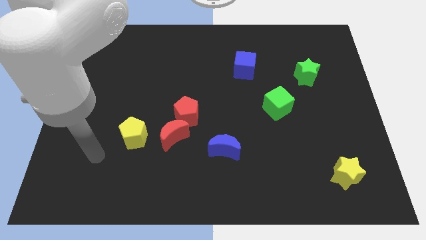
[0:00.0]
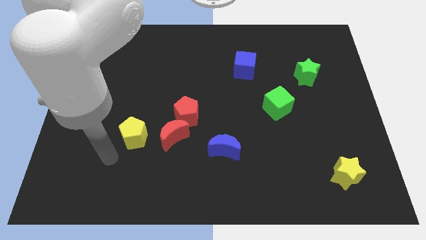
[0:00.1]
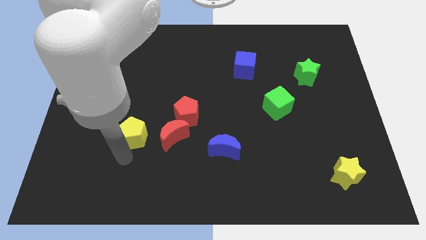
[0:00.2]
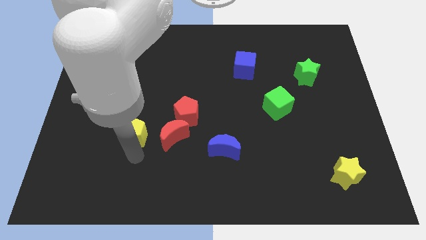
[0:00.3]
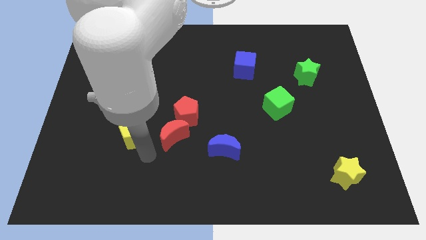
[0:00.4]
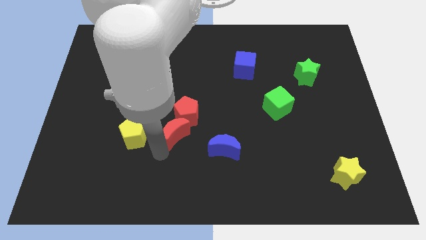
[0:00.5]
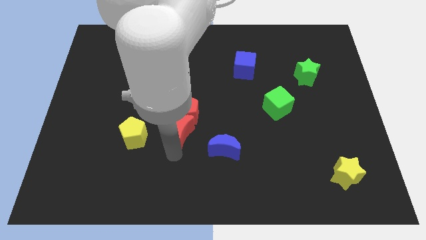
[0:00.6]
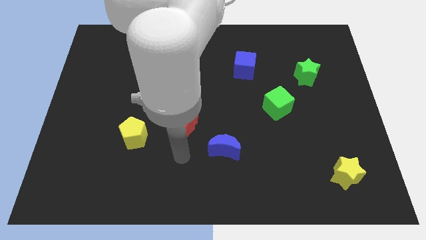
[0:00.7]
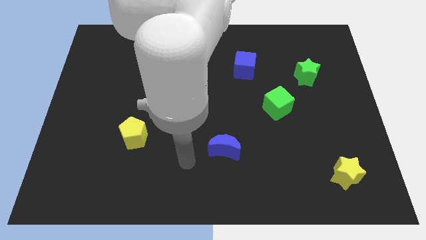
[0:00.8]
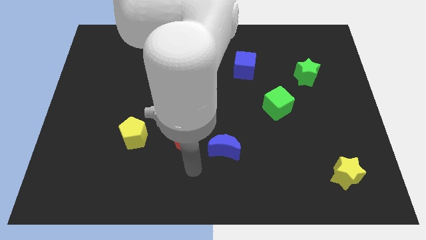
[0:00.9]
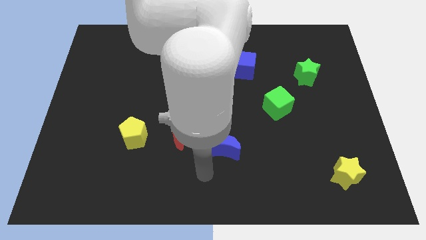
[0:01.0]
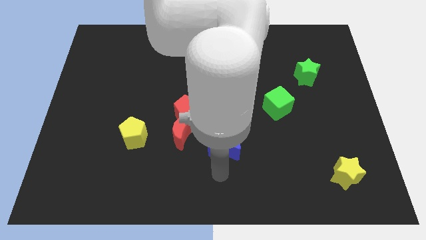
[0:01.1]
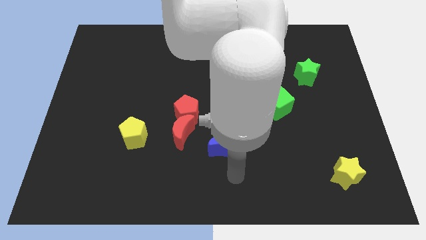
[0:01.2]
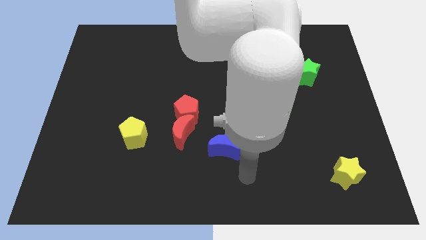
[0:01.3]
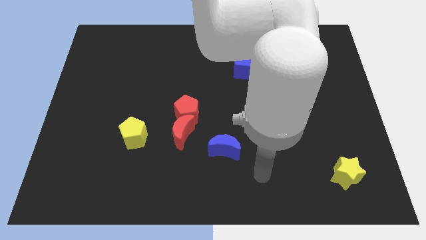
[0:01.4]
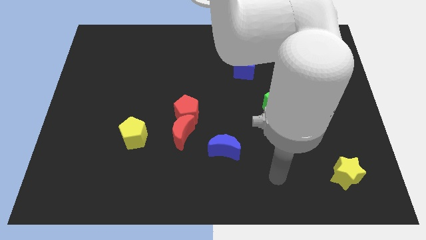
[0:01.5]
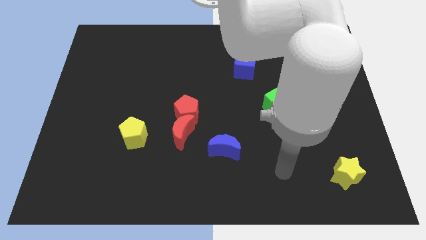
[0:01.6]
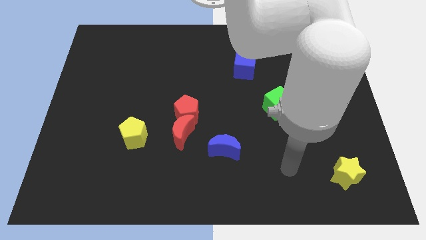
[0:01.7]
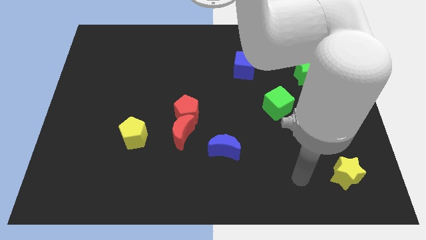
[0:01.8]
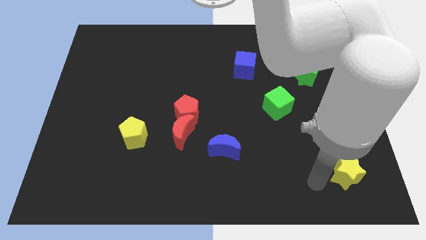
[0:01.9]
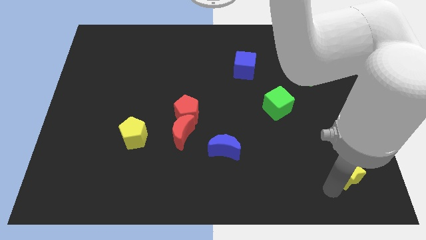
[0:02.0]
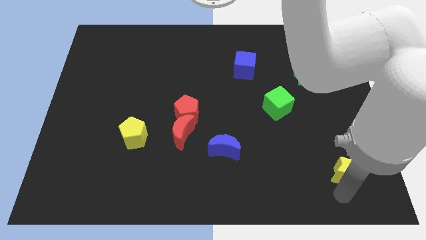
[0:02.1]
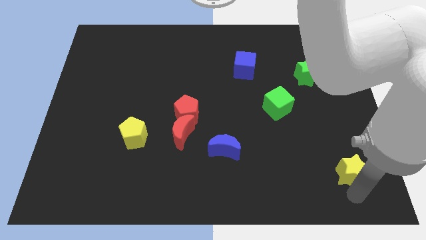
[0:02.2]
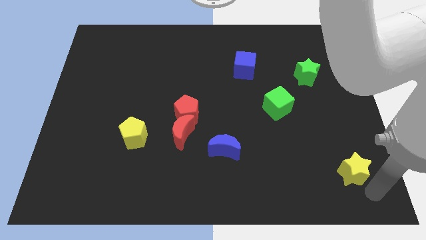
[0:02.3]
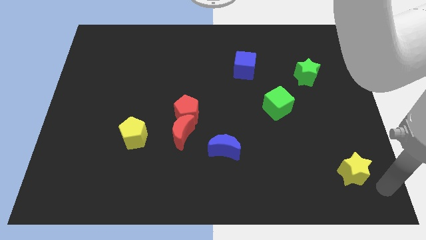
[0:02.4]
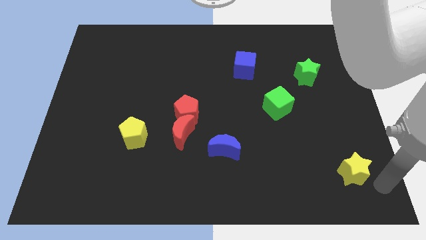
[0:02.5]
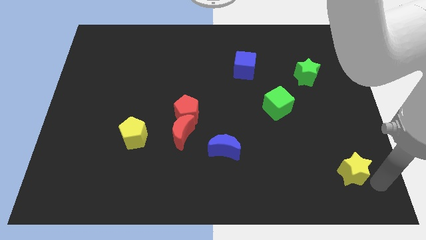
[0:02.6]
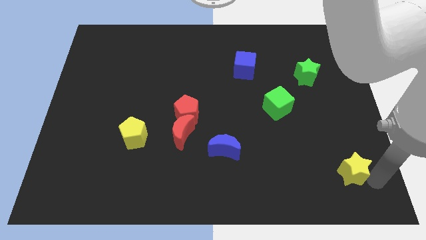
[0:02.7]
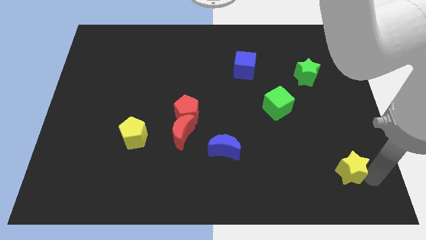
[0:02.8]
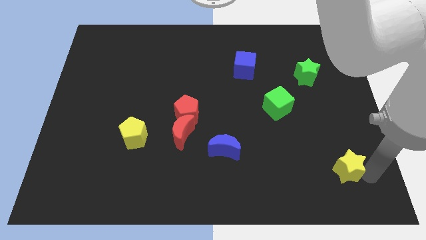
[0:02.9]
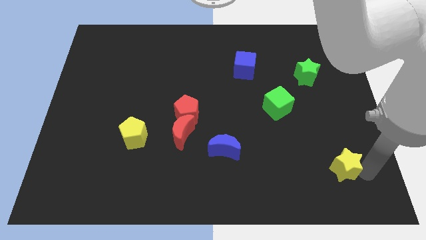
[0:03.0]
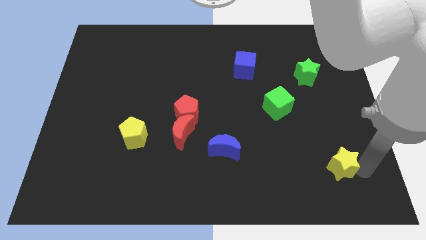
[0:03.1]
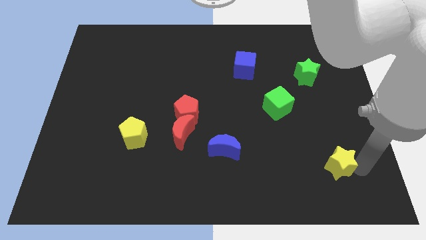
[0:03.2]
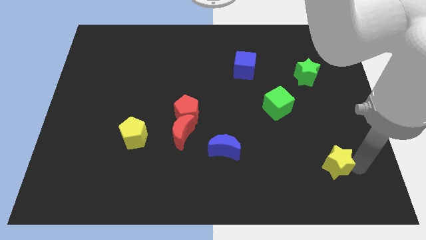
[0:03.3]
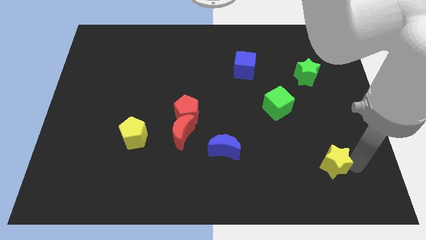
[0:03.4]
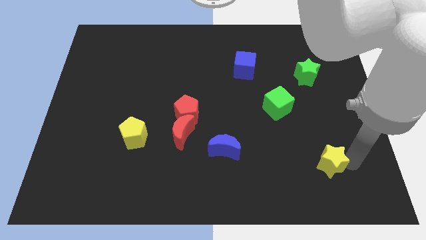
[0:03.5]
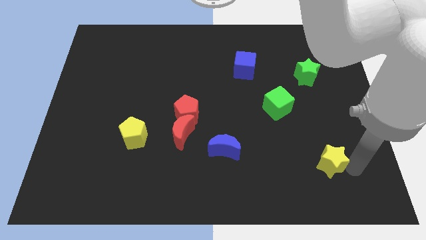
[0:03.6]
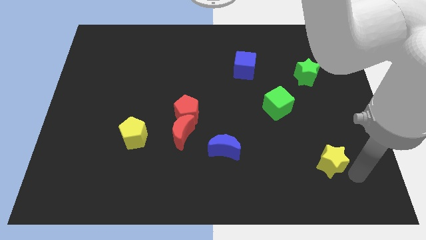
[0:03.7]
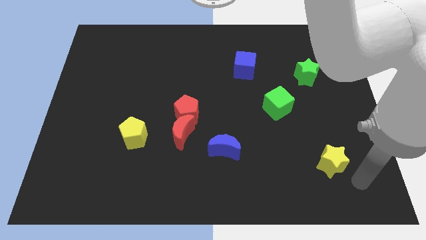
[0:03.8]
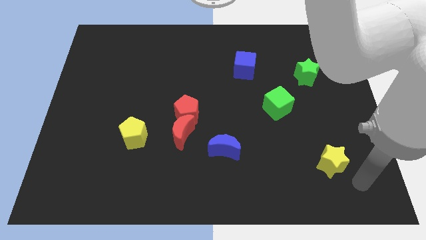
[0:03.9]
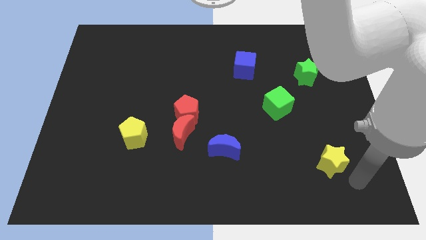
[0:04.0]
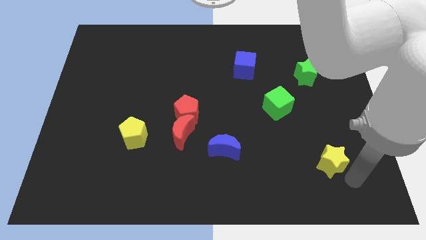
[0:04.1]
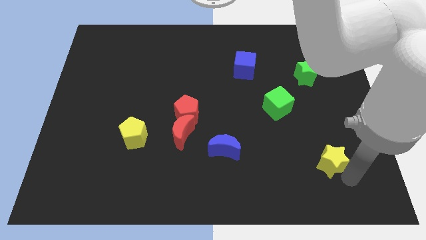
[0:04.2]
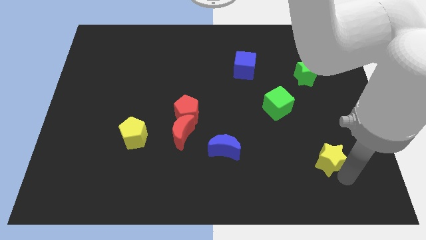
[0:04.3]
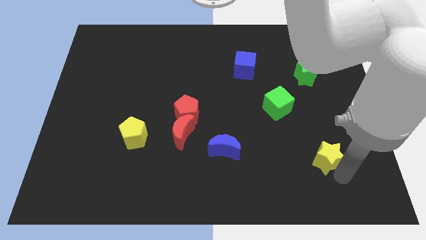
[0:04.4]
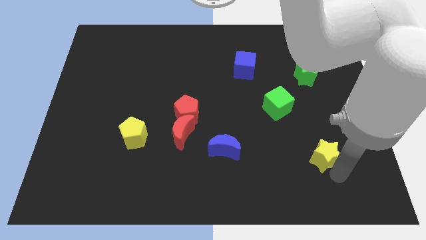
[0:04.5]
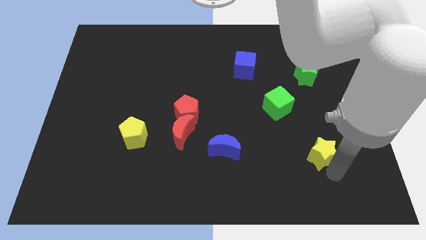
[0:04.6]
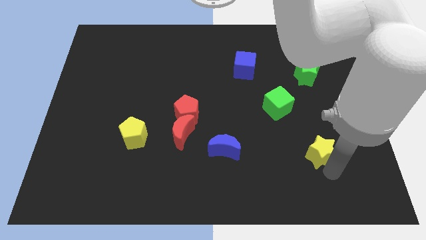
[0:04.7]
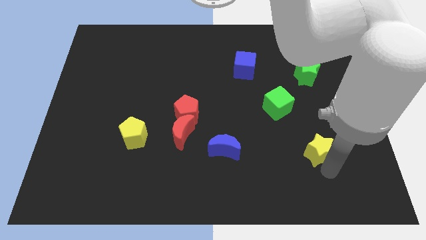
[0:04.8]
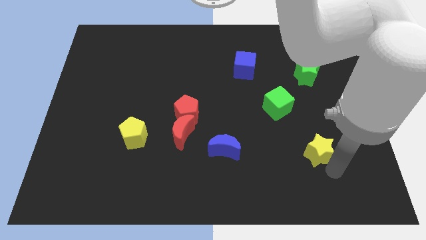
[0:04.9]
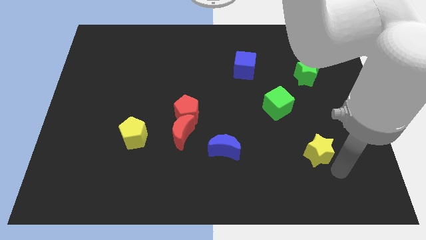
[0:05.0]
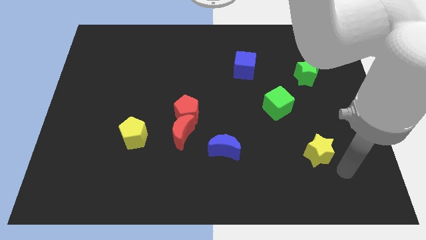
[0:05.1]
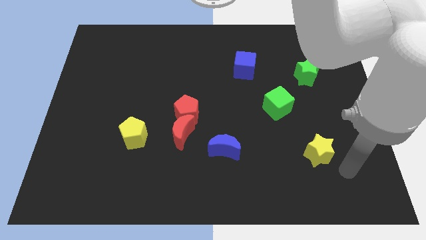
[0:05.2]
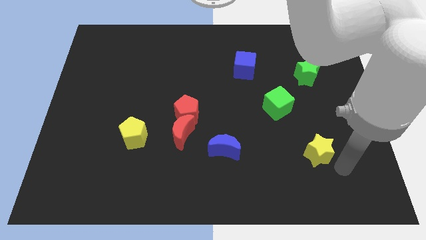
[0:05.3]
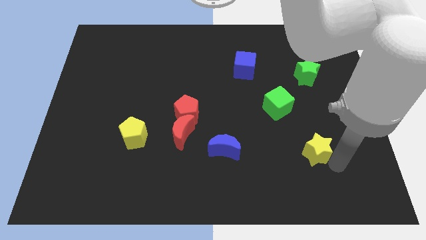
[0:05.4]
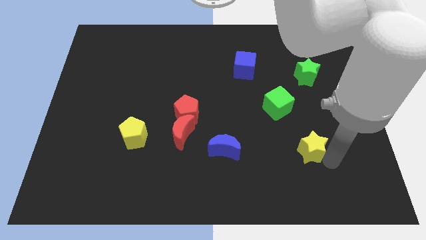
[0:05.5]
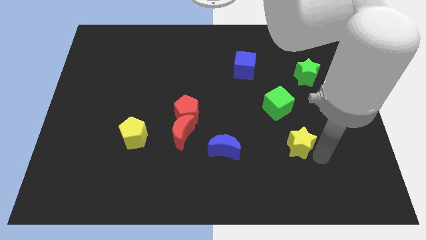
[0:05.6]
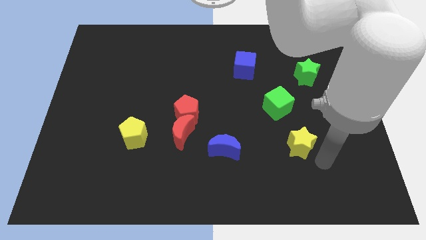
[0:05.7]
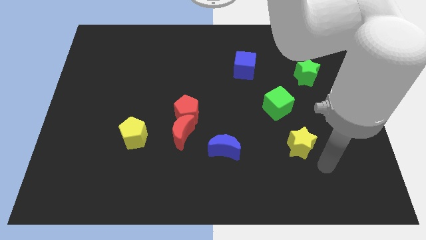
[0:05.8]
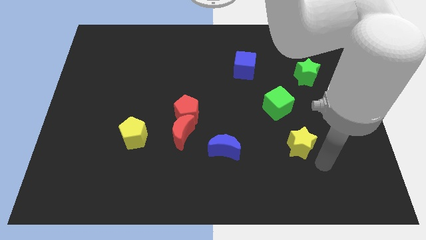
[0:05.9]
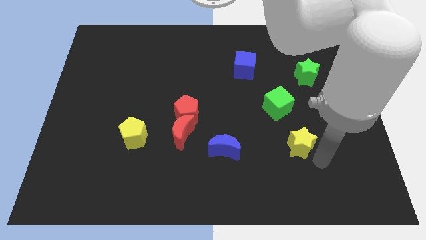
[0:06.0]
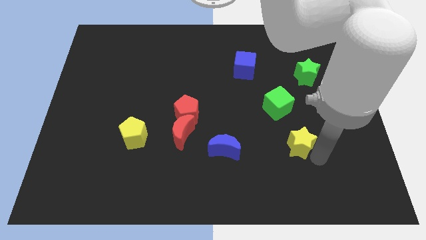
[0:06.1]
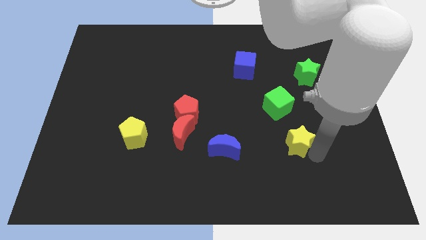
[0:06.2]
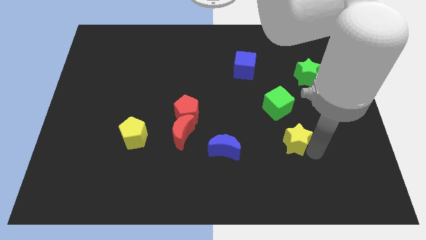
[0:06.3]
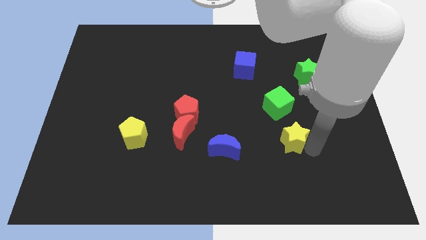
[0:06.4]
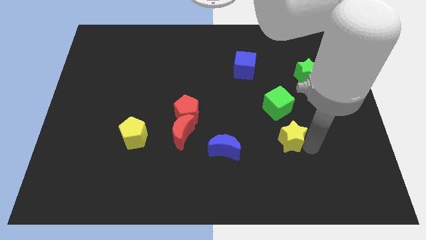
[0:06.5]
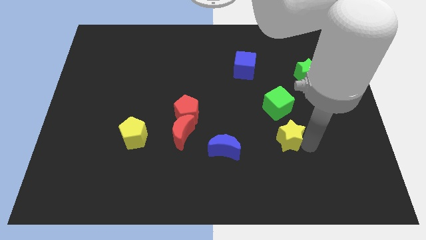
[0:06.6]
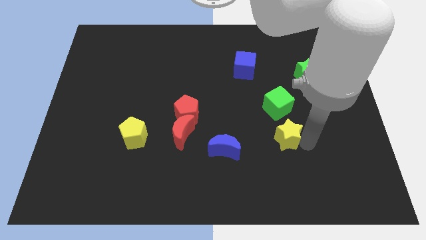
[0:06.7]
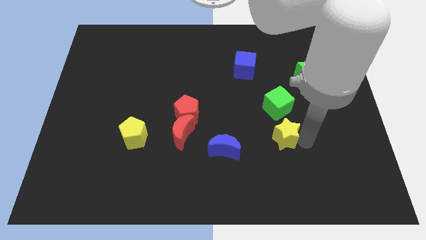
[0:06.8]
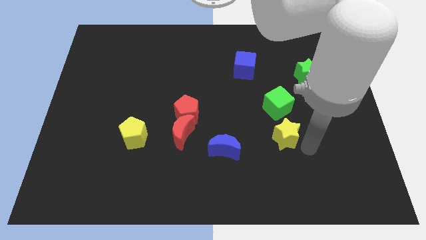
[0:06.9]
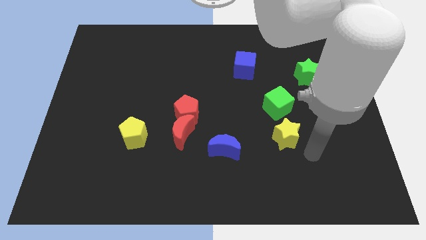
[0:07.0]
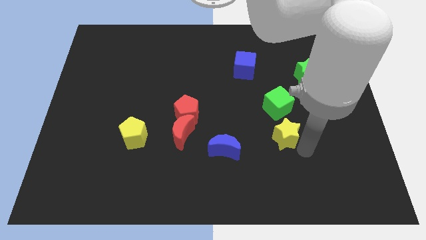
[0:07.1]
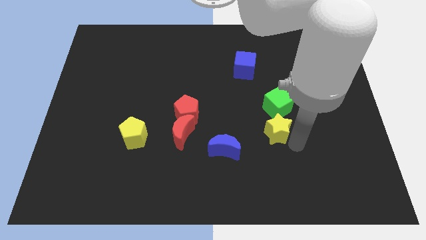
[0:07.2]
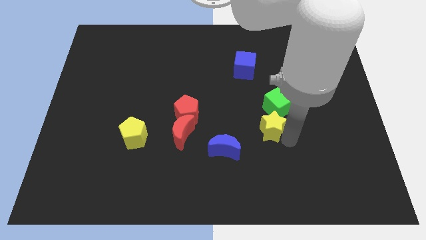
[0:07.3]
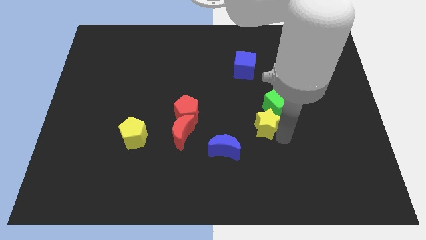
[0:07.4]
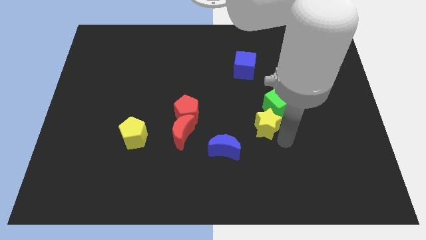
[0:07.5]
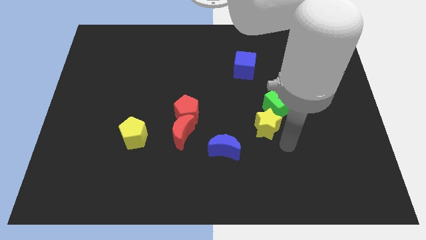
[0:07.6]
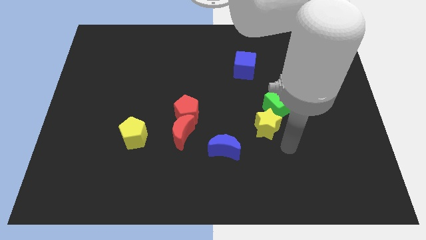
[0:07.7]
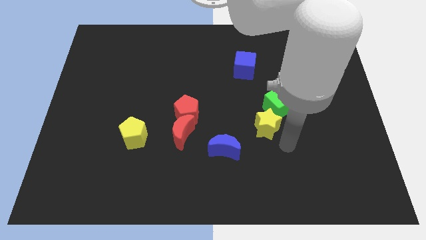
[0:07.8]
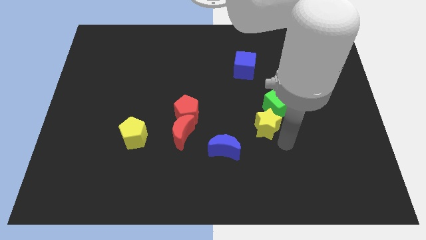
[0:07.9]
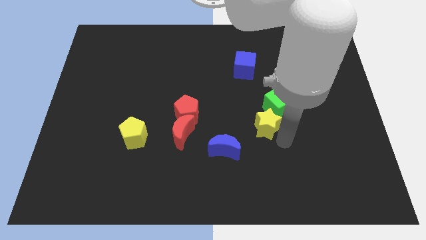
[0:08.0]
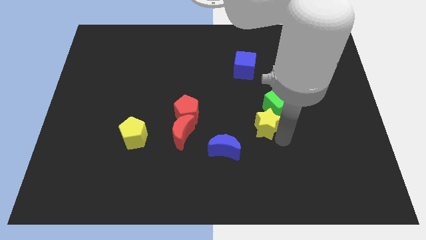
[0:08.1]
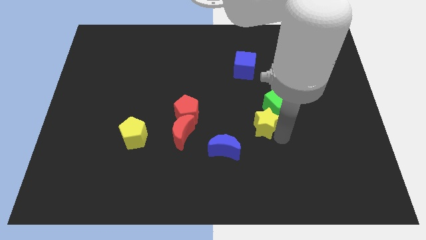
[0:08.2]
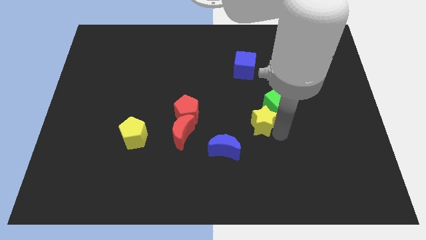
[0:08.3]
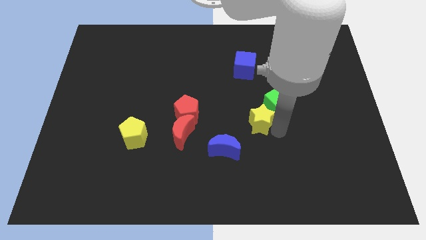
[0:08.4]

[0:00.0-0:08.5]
push the yellow star to the center of the board
